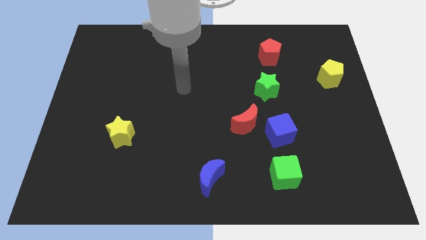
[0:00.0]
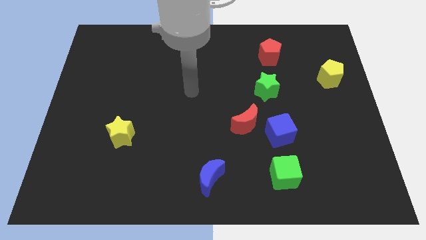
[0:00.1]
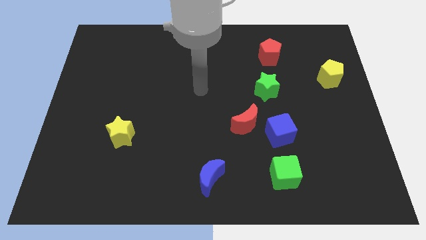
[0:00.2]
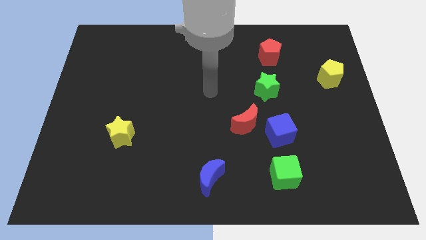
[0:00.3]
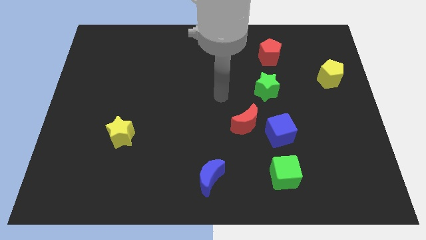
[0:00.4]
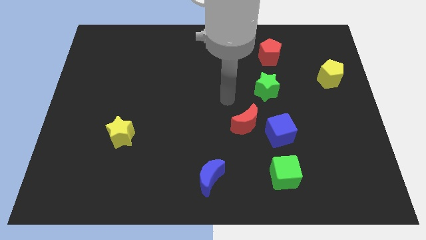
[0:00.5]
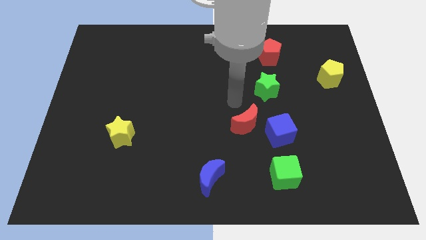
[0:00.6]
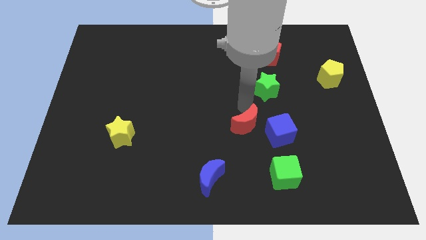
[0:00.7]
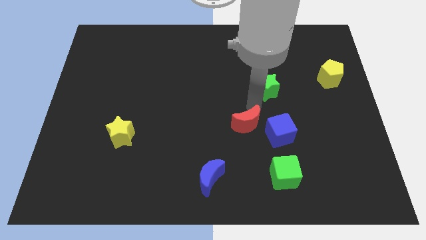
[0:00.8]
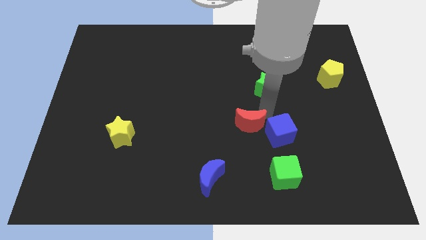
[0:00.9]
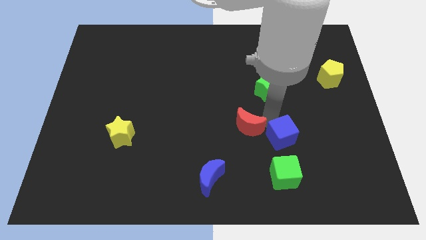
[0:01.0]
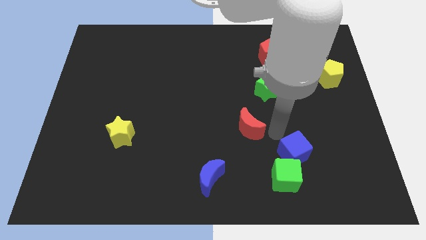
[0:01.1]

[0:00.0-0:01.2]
separate the red moon from the blue cube

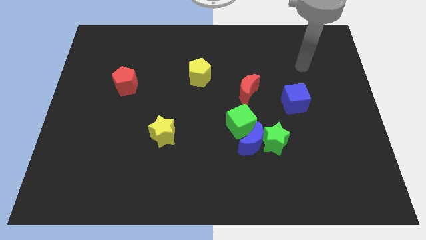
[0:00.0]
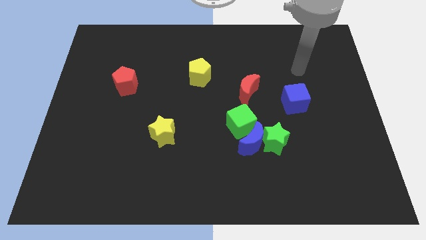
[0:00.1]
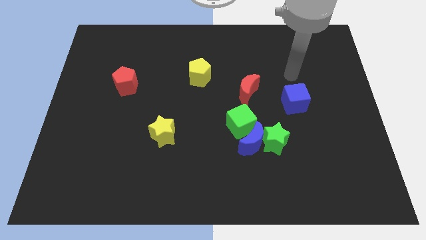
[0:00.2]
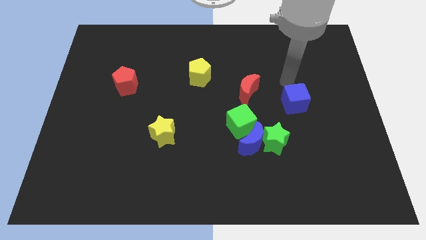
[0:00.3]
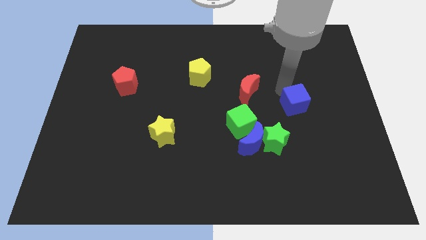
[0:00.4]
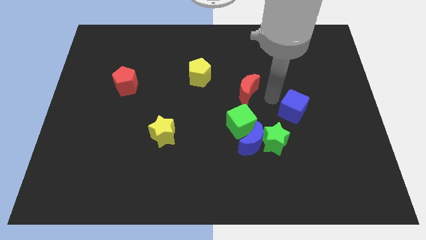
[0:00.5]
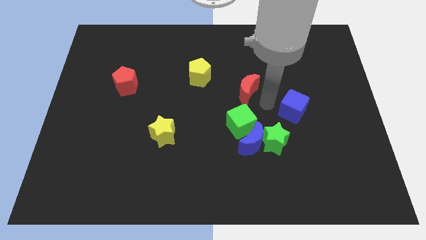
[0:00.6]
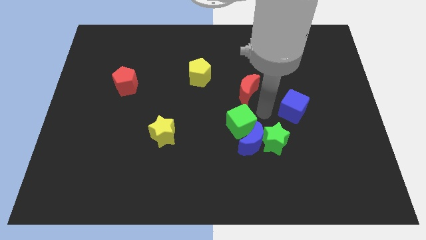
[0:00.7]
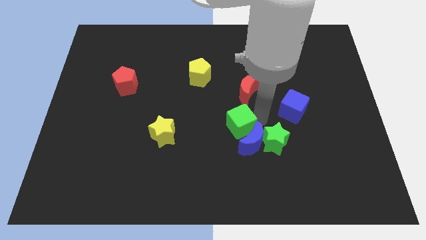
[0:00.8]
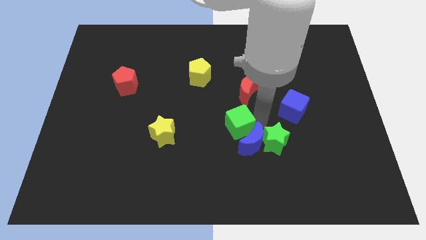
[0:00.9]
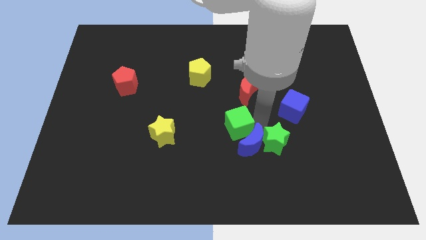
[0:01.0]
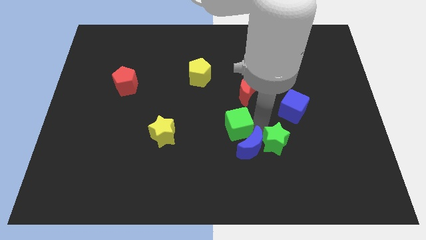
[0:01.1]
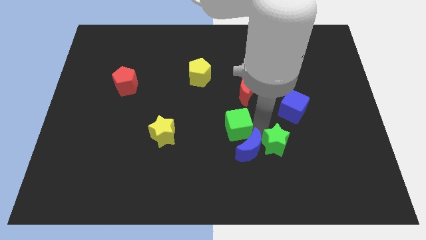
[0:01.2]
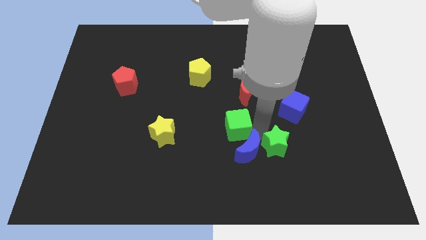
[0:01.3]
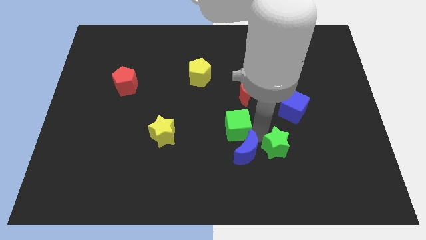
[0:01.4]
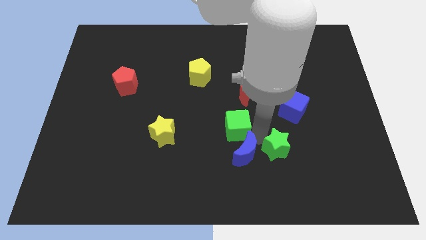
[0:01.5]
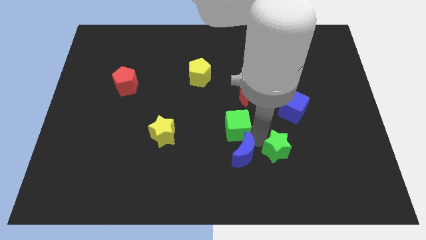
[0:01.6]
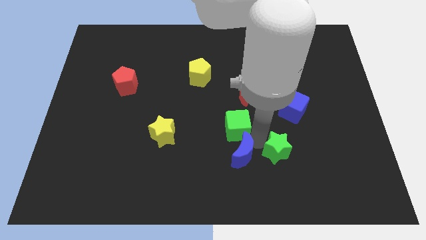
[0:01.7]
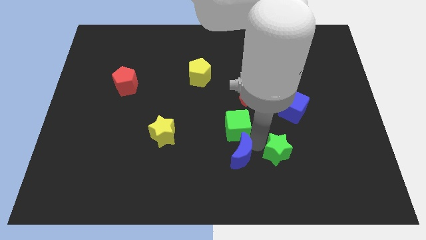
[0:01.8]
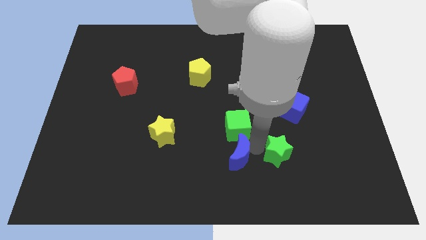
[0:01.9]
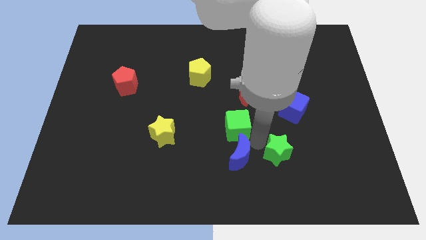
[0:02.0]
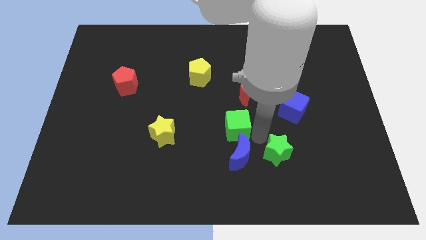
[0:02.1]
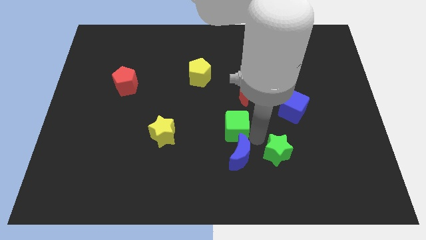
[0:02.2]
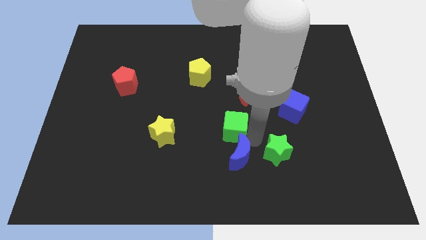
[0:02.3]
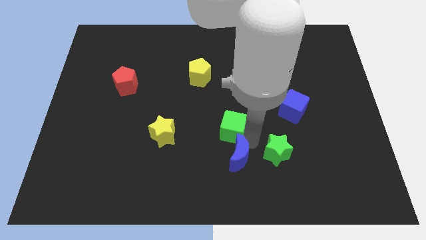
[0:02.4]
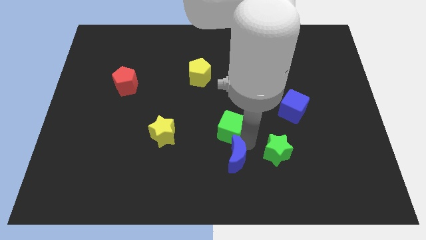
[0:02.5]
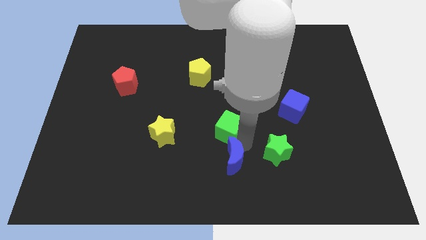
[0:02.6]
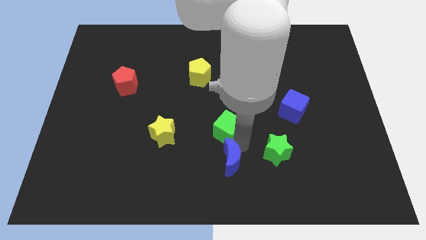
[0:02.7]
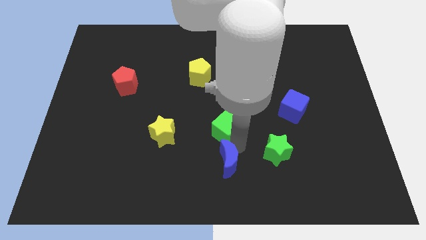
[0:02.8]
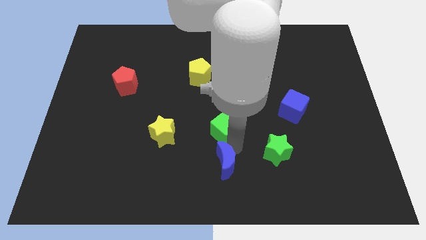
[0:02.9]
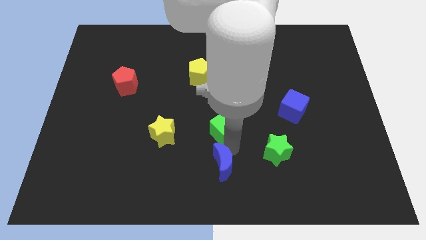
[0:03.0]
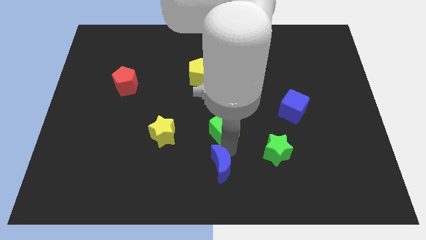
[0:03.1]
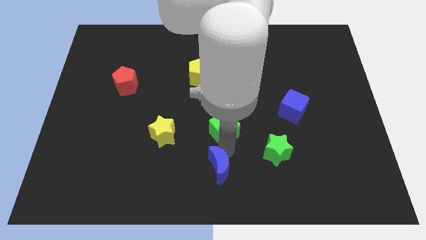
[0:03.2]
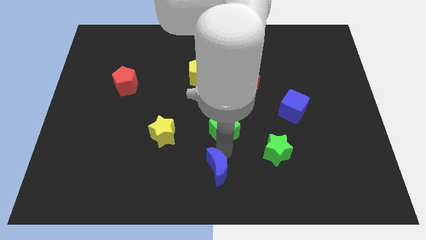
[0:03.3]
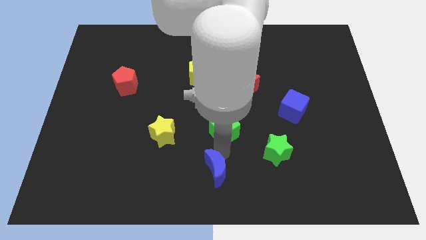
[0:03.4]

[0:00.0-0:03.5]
move the blue moon away from the green star and green cube

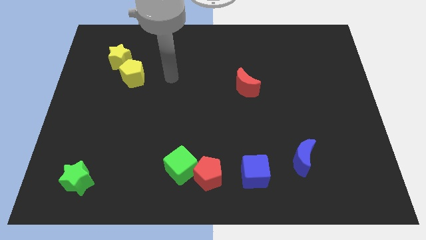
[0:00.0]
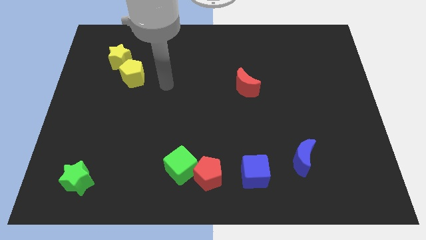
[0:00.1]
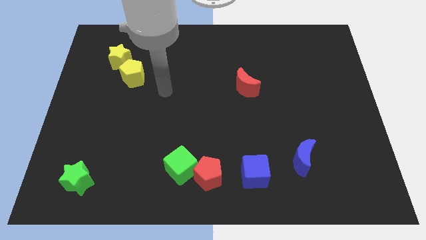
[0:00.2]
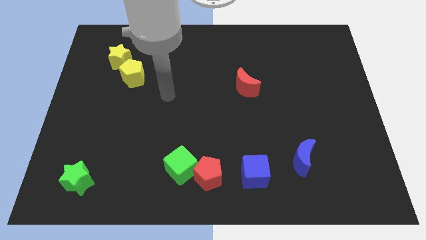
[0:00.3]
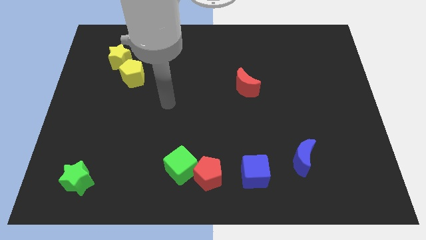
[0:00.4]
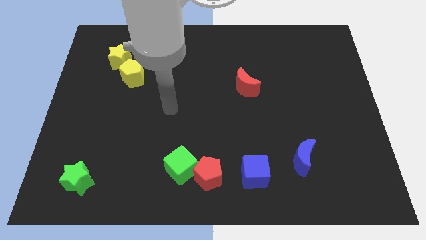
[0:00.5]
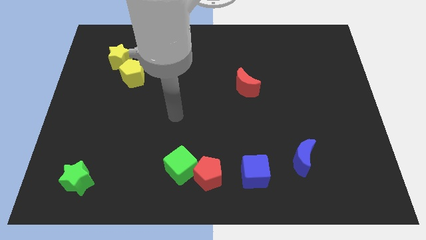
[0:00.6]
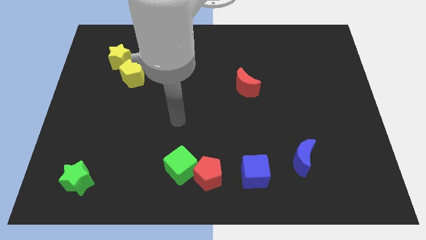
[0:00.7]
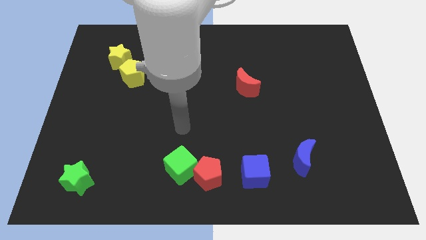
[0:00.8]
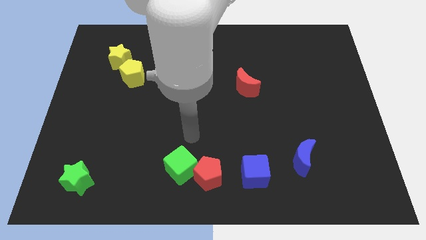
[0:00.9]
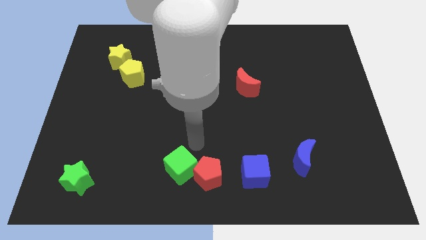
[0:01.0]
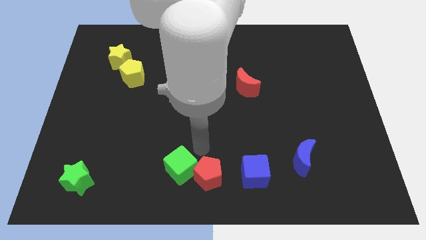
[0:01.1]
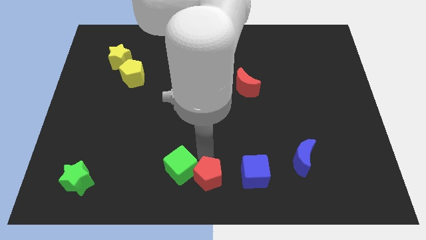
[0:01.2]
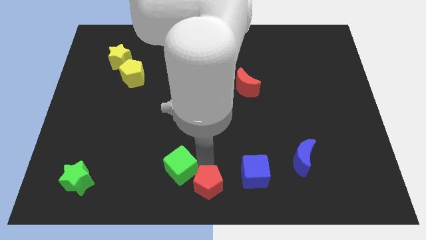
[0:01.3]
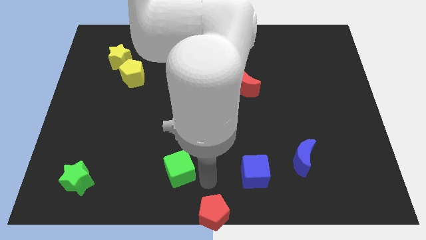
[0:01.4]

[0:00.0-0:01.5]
separate the green cube from the red pentagon

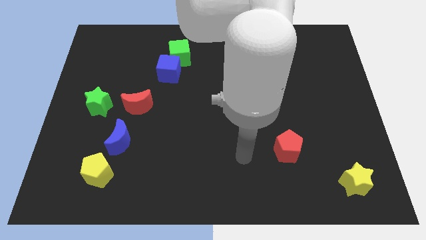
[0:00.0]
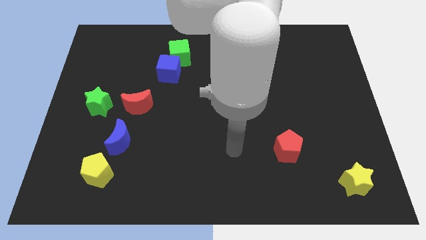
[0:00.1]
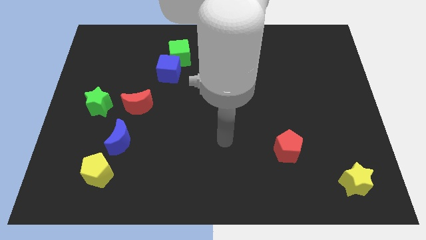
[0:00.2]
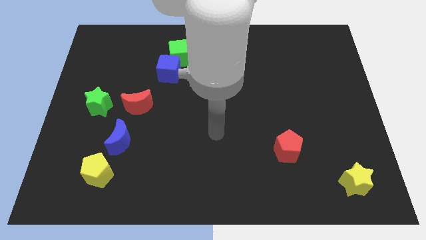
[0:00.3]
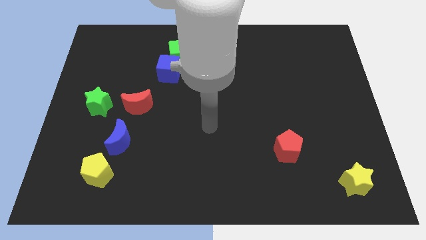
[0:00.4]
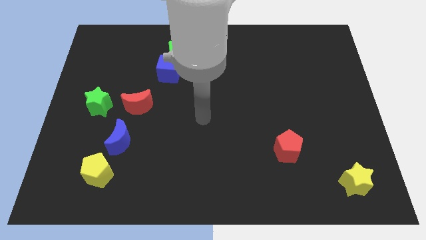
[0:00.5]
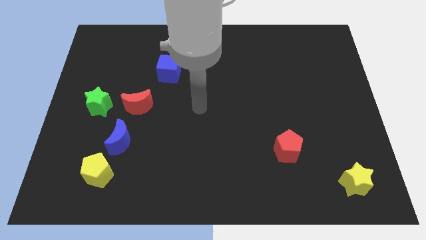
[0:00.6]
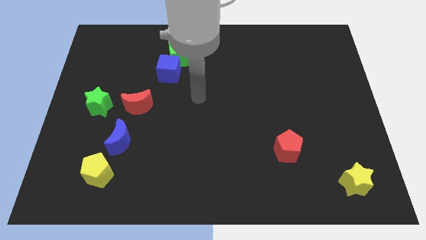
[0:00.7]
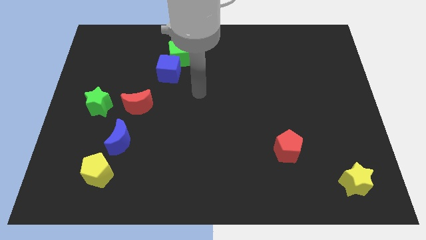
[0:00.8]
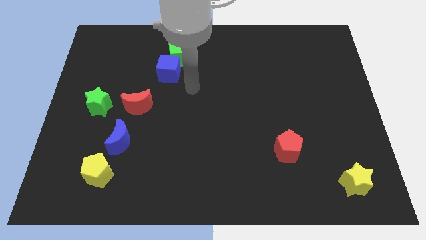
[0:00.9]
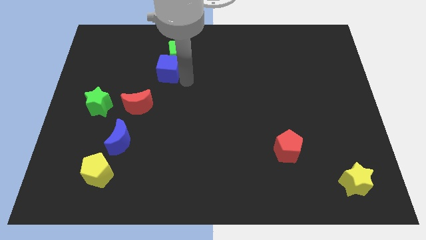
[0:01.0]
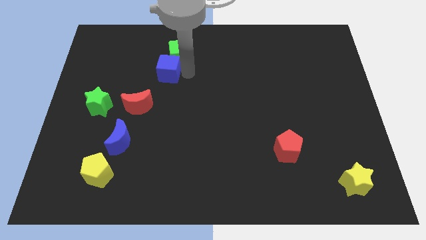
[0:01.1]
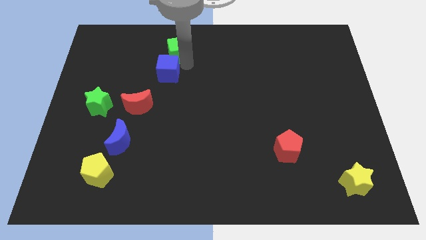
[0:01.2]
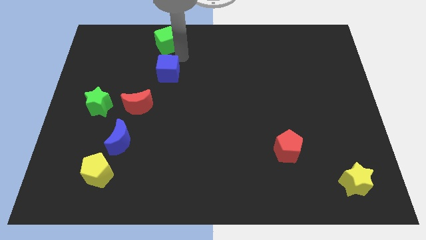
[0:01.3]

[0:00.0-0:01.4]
separate the blue cube from the green cube

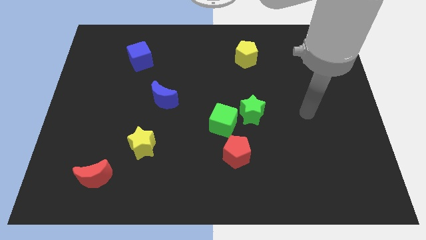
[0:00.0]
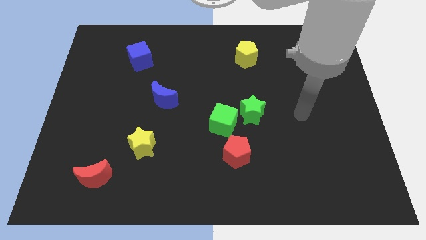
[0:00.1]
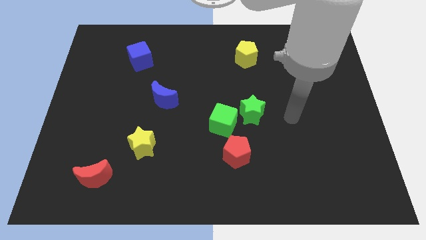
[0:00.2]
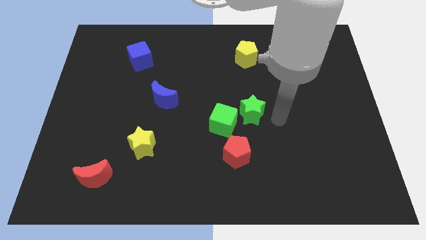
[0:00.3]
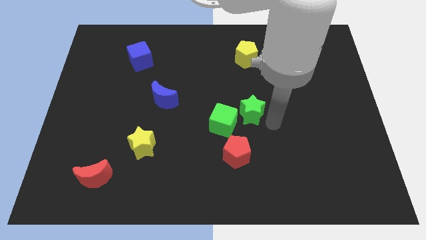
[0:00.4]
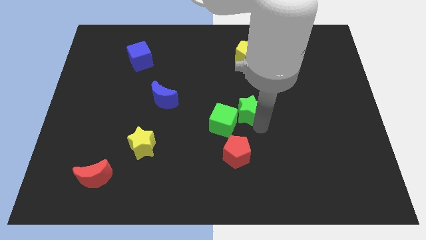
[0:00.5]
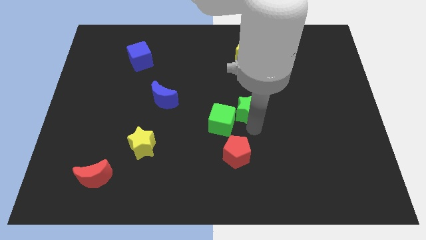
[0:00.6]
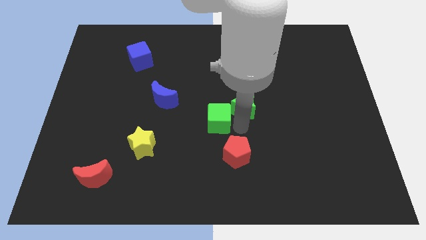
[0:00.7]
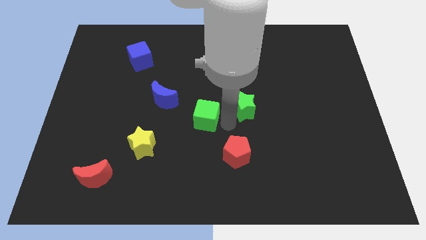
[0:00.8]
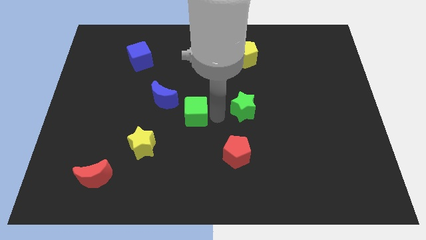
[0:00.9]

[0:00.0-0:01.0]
separate the green star from the green cube

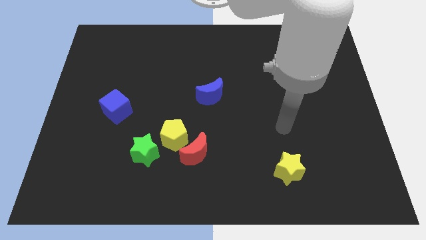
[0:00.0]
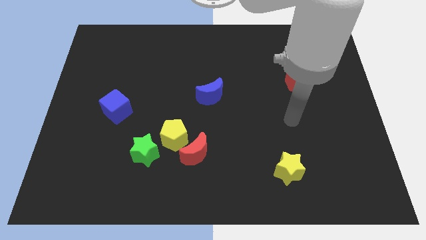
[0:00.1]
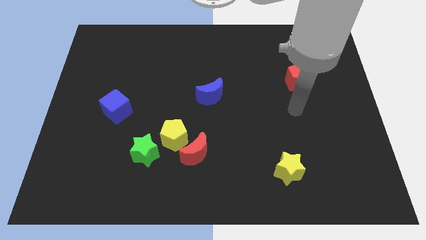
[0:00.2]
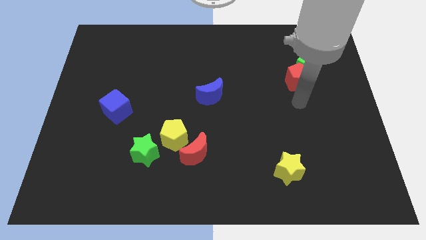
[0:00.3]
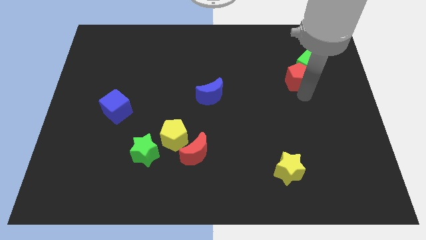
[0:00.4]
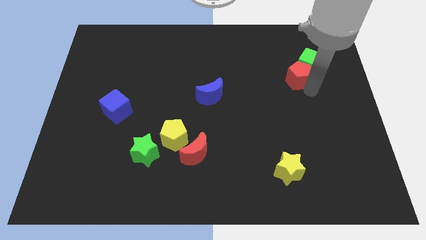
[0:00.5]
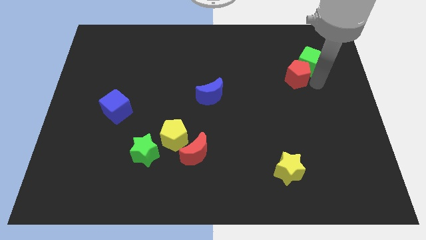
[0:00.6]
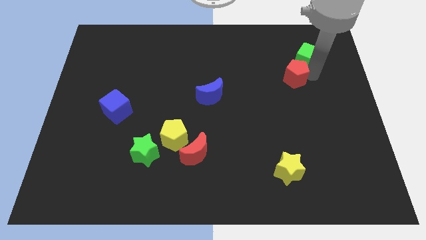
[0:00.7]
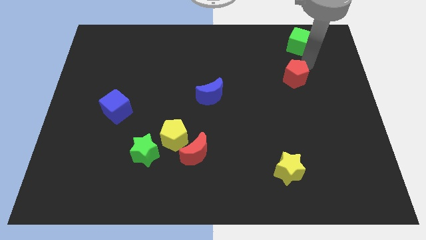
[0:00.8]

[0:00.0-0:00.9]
pull the red pentagon apart from the green cube
